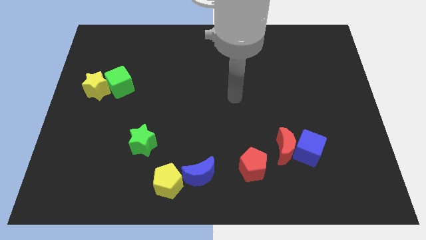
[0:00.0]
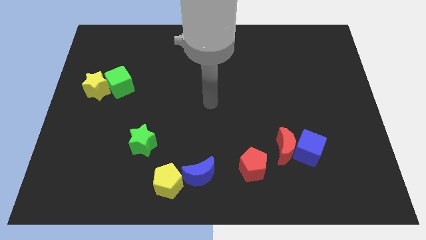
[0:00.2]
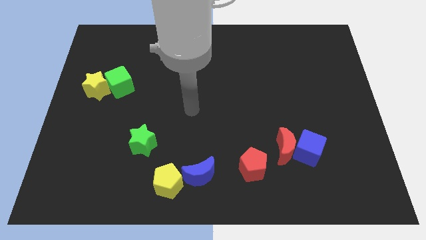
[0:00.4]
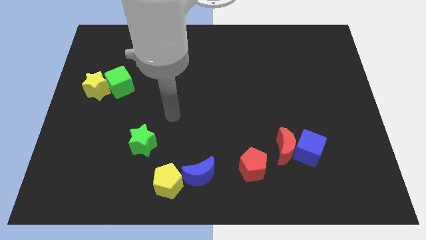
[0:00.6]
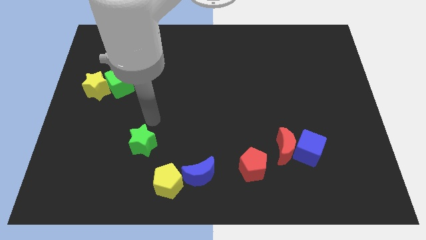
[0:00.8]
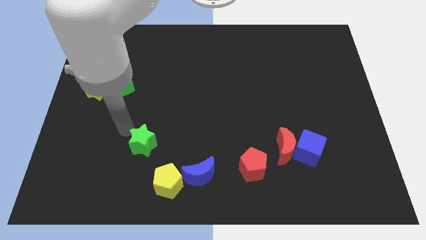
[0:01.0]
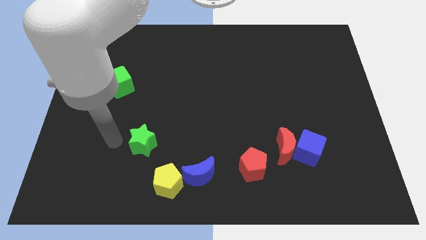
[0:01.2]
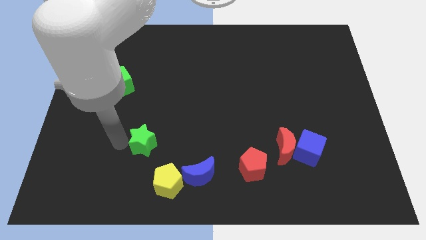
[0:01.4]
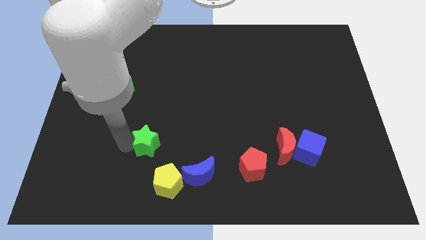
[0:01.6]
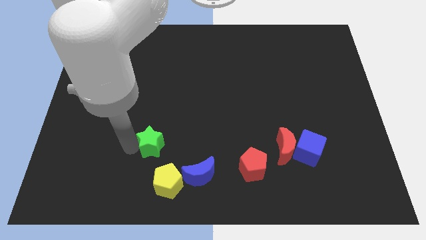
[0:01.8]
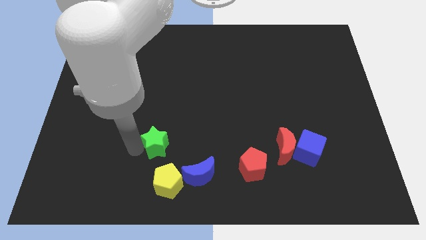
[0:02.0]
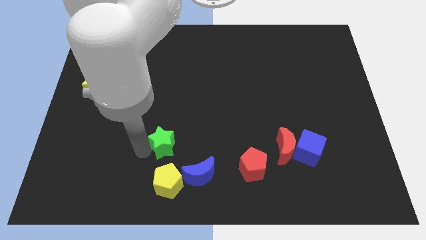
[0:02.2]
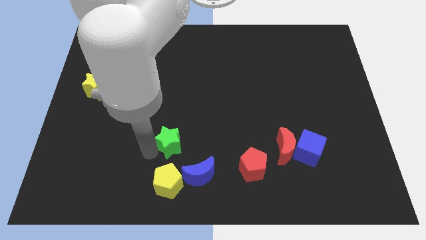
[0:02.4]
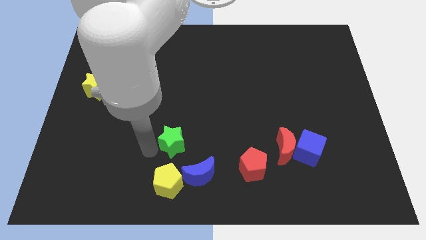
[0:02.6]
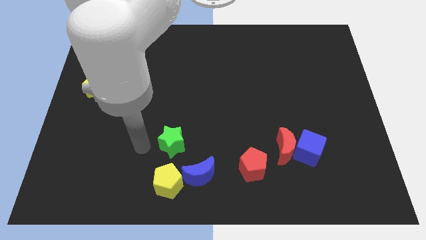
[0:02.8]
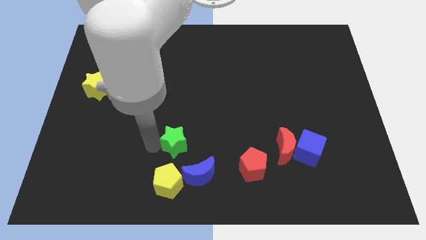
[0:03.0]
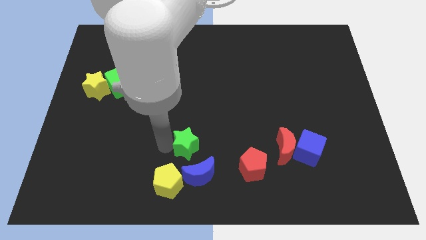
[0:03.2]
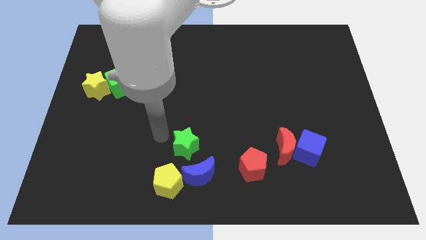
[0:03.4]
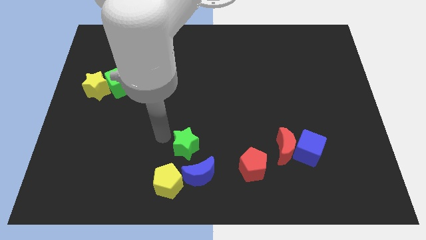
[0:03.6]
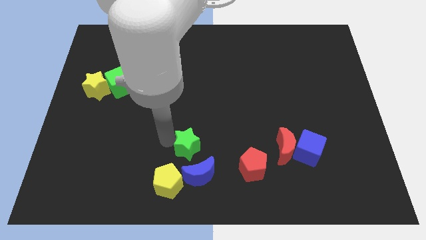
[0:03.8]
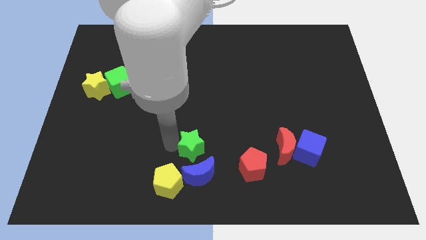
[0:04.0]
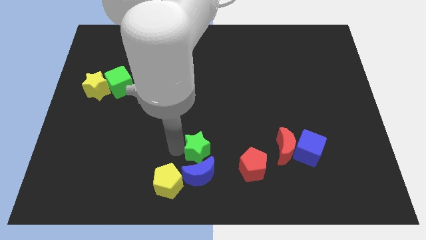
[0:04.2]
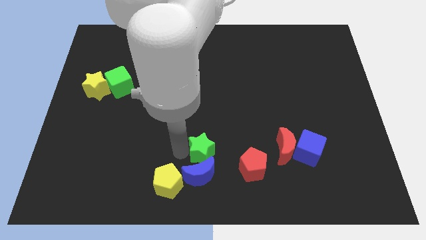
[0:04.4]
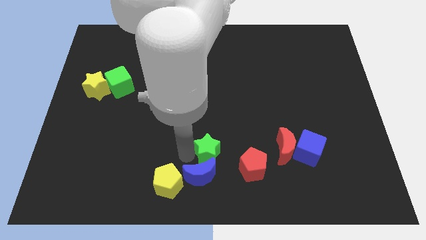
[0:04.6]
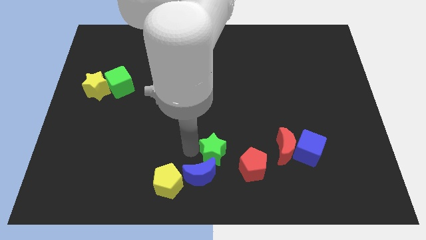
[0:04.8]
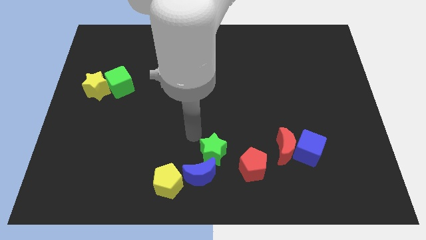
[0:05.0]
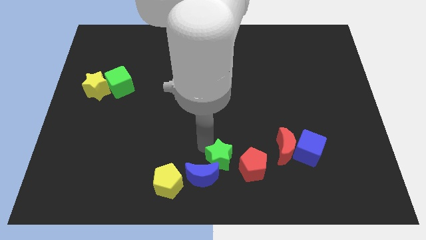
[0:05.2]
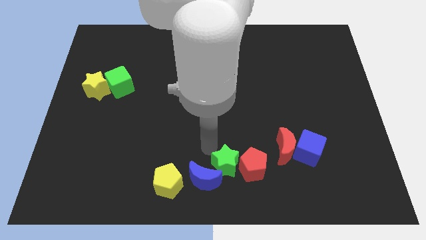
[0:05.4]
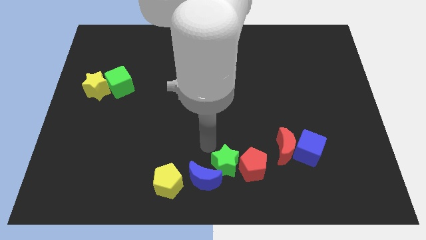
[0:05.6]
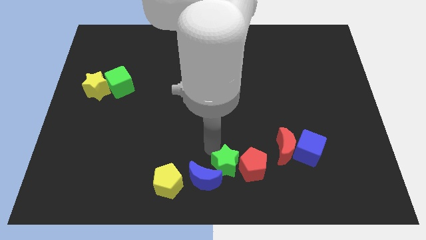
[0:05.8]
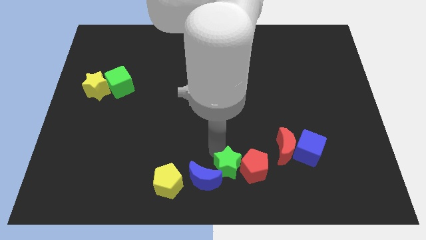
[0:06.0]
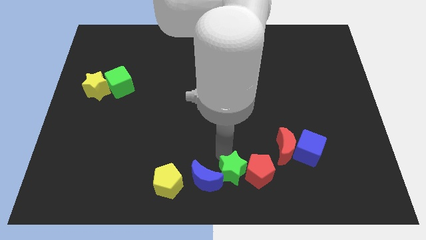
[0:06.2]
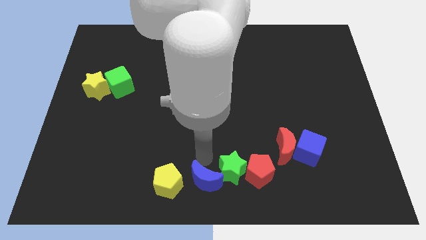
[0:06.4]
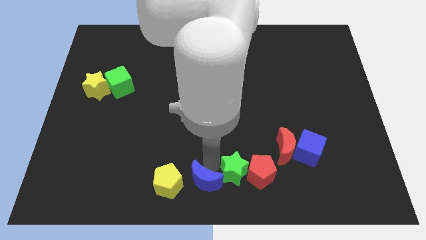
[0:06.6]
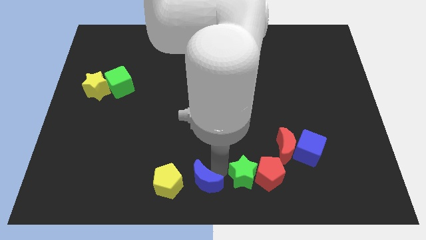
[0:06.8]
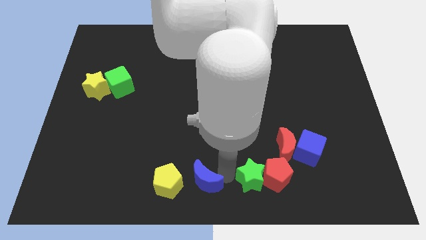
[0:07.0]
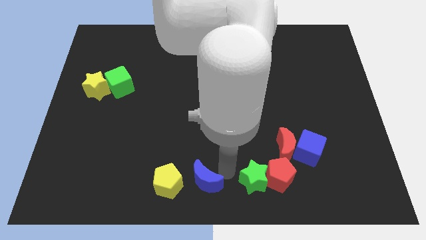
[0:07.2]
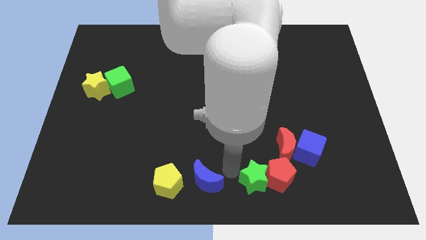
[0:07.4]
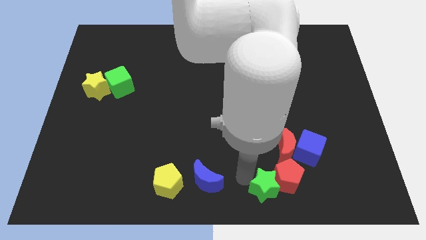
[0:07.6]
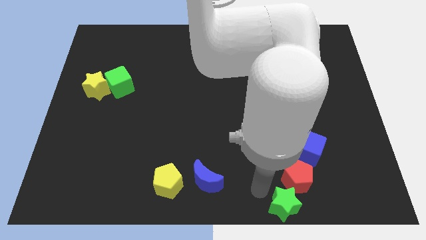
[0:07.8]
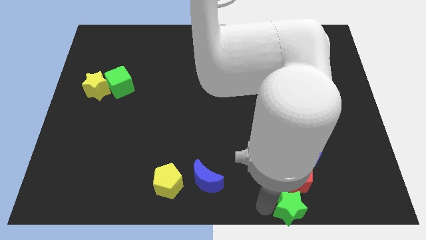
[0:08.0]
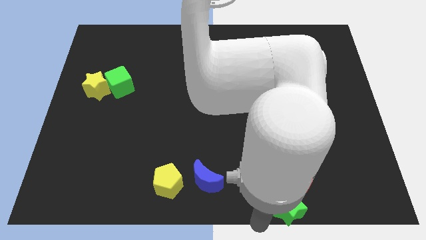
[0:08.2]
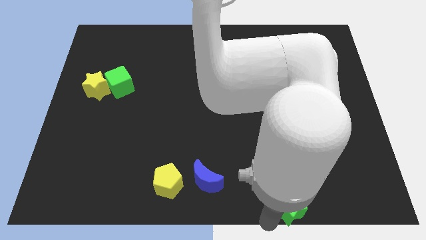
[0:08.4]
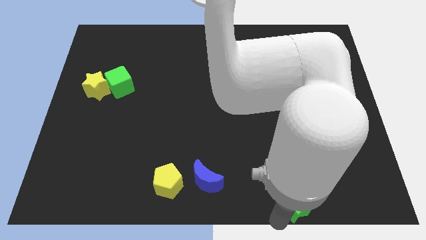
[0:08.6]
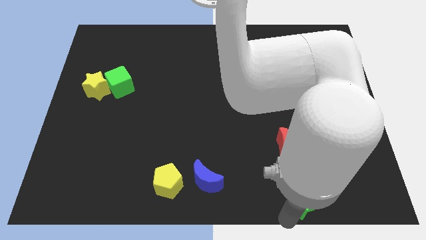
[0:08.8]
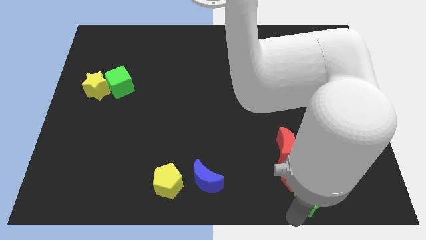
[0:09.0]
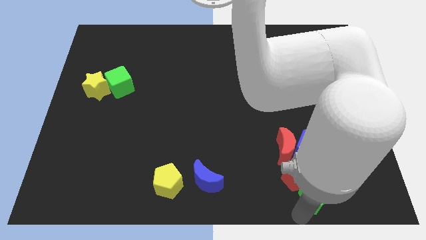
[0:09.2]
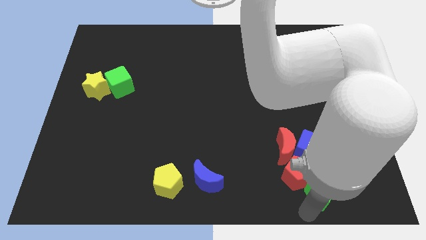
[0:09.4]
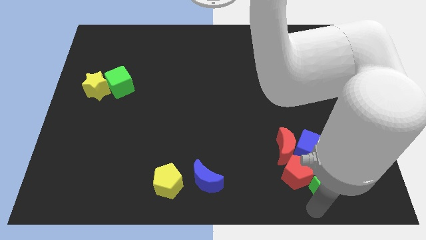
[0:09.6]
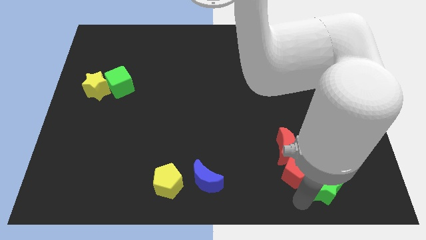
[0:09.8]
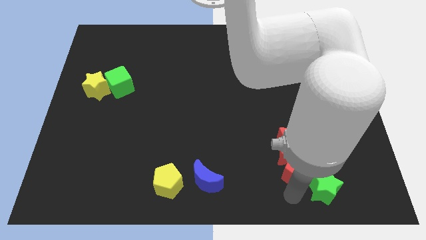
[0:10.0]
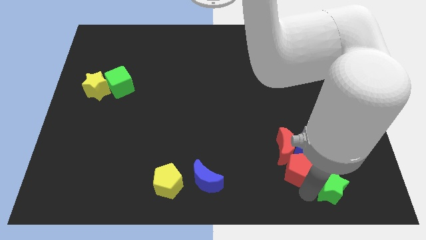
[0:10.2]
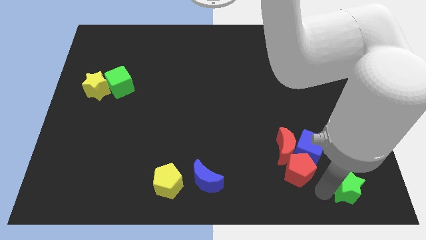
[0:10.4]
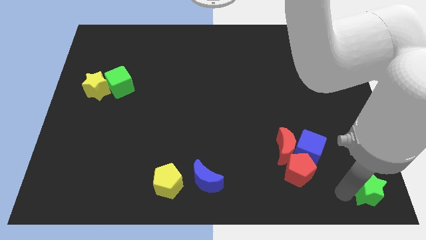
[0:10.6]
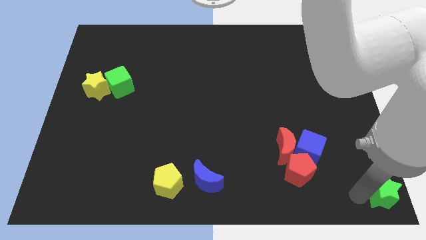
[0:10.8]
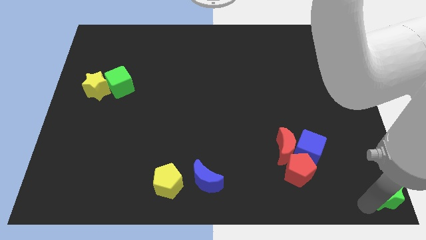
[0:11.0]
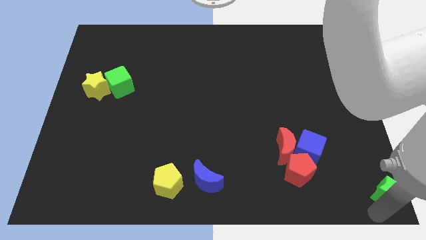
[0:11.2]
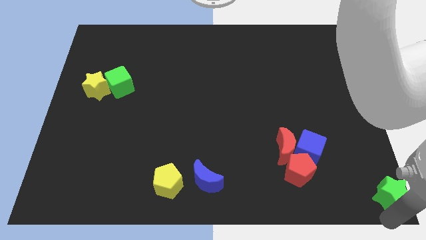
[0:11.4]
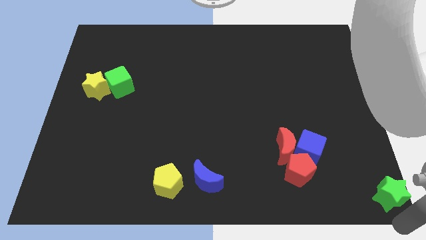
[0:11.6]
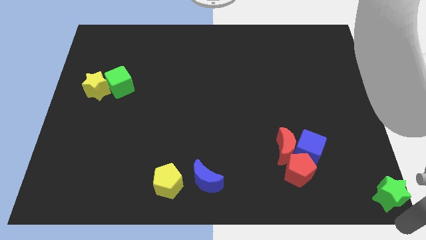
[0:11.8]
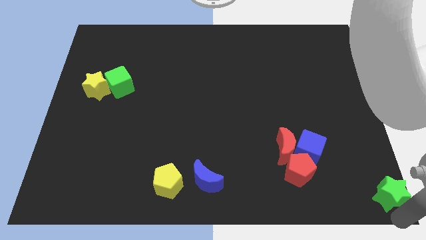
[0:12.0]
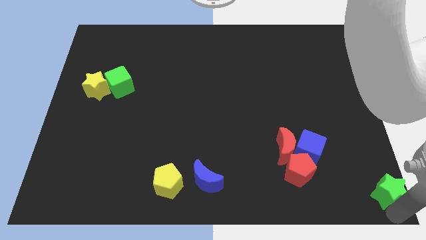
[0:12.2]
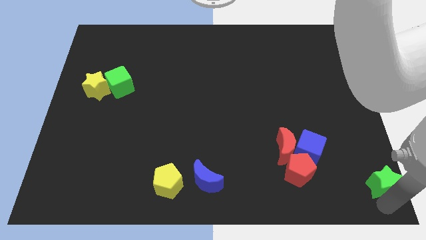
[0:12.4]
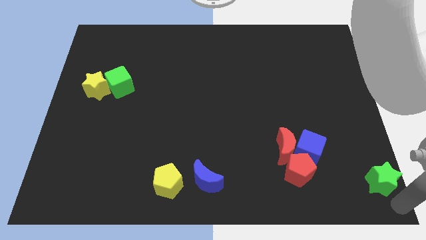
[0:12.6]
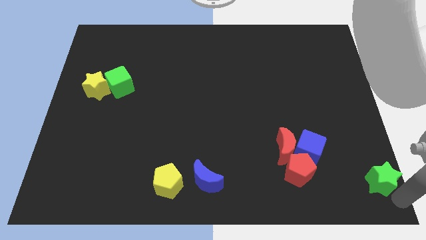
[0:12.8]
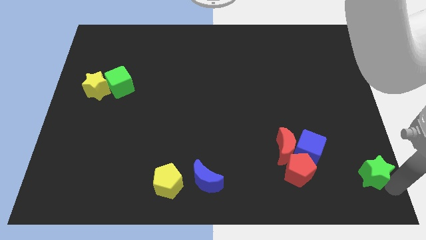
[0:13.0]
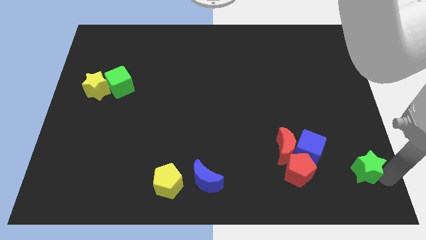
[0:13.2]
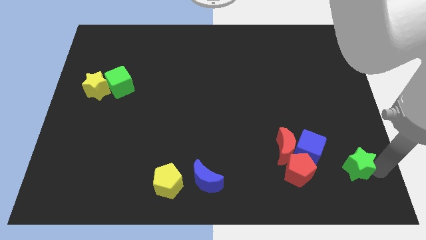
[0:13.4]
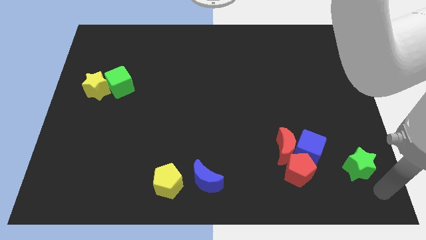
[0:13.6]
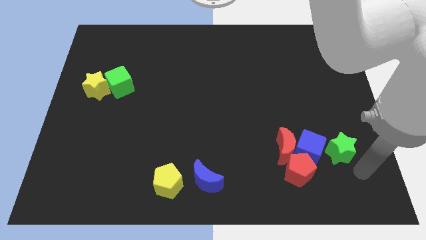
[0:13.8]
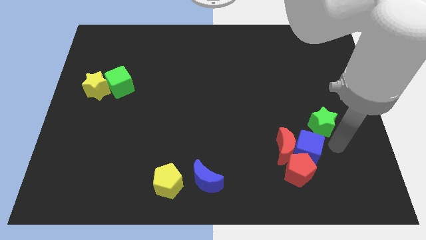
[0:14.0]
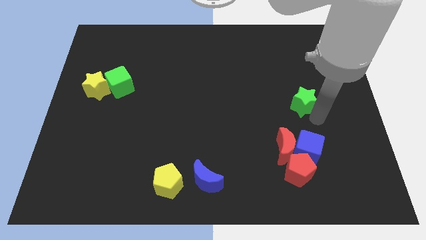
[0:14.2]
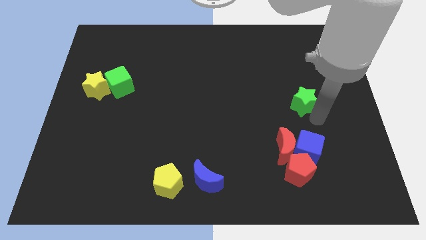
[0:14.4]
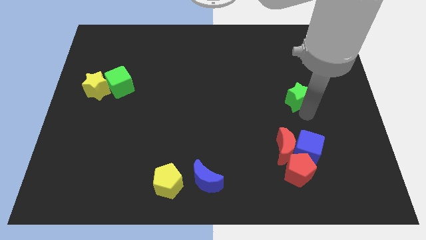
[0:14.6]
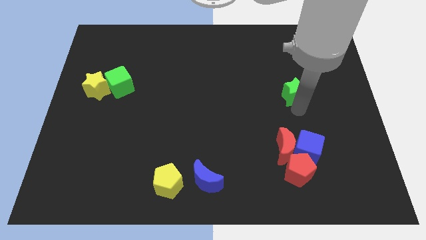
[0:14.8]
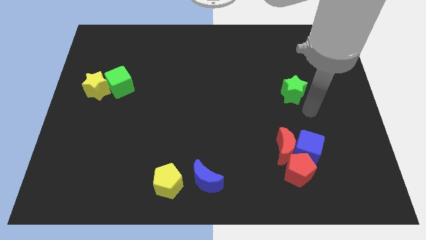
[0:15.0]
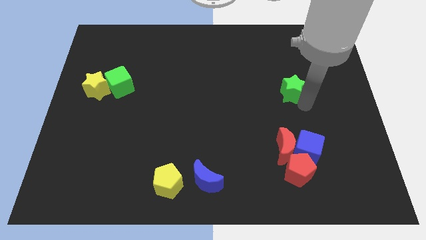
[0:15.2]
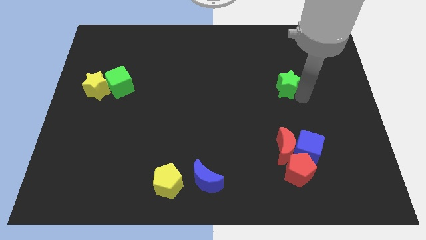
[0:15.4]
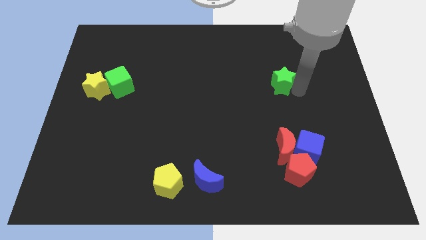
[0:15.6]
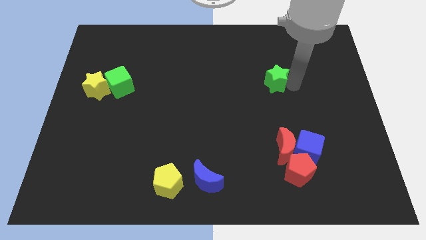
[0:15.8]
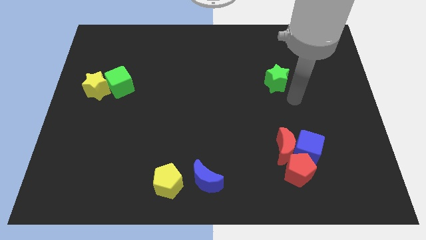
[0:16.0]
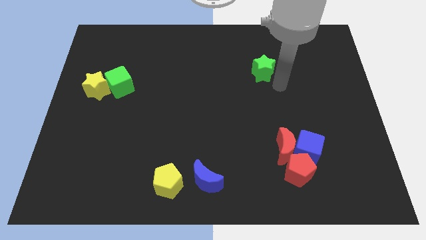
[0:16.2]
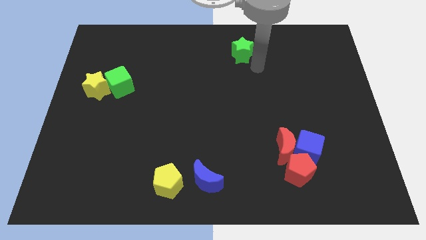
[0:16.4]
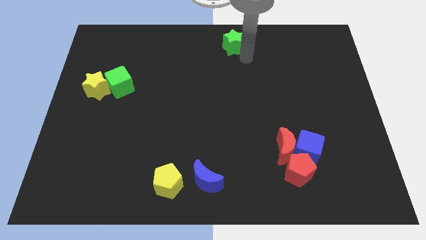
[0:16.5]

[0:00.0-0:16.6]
move the green star to the towards your base
